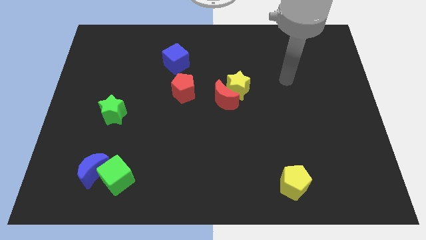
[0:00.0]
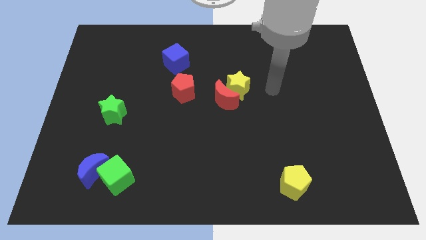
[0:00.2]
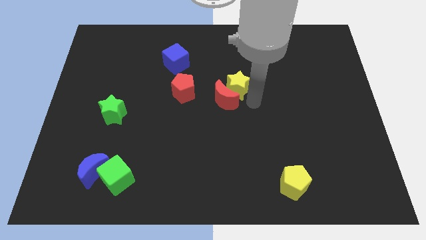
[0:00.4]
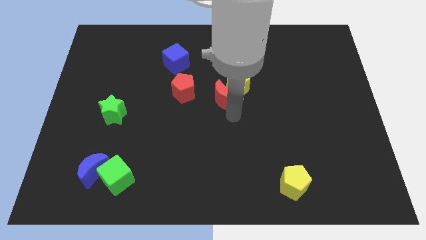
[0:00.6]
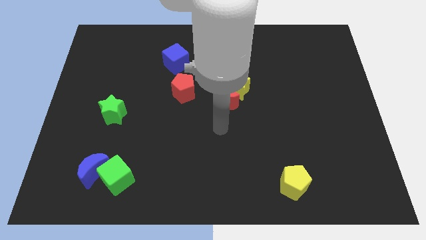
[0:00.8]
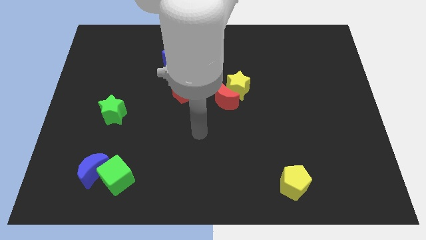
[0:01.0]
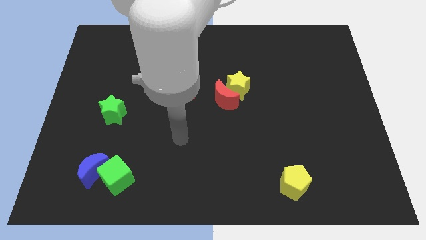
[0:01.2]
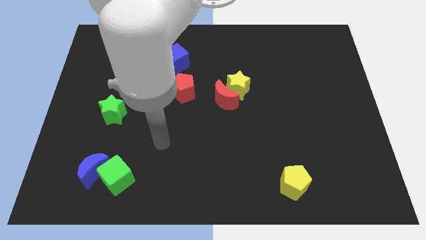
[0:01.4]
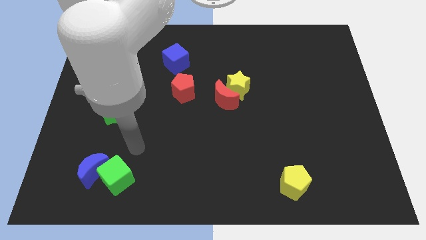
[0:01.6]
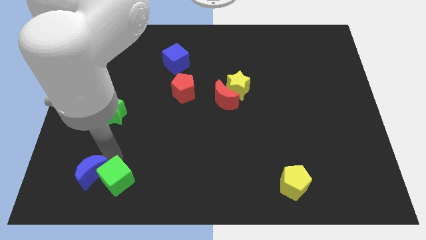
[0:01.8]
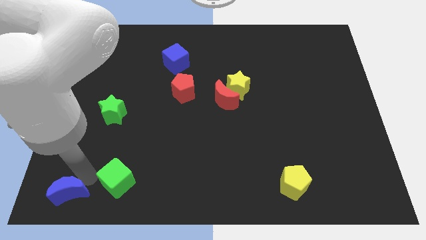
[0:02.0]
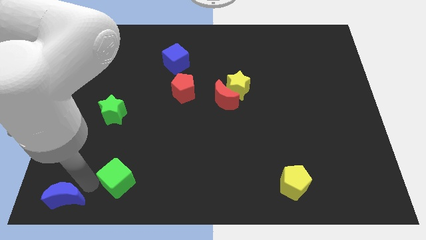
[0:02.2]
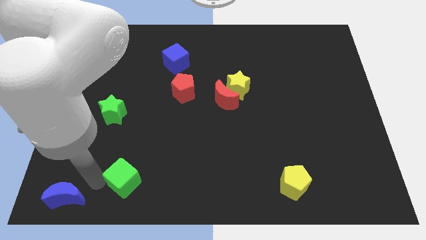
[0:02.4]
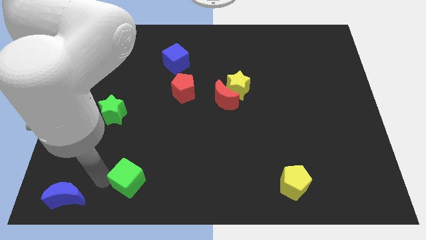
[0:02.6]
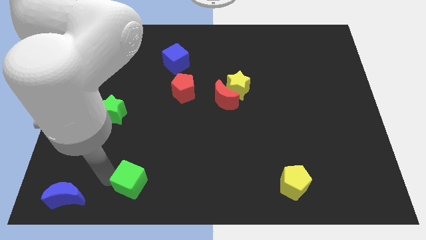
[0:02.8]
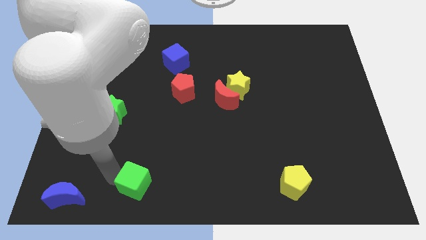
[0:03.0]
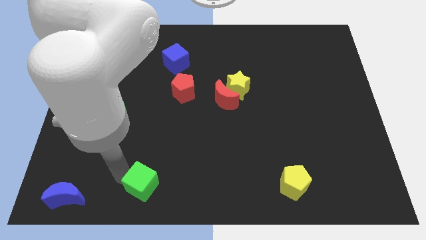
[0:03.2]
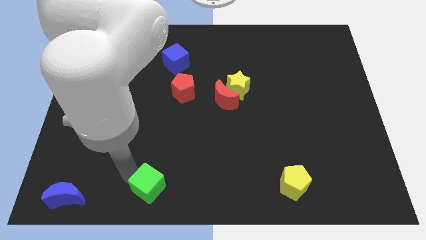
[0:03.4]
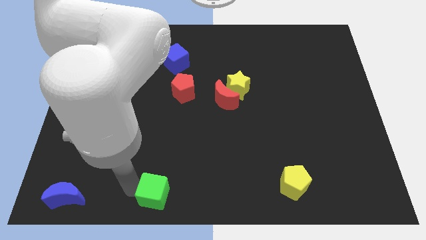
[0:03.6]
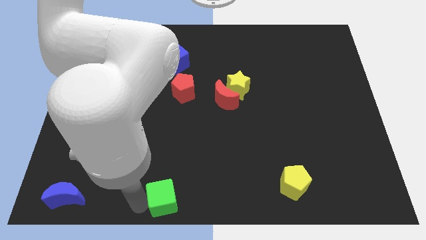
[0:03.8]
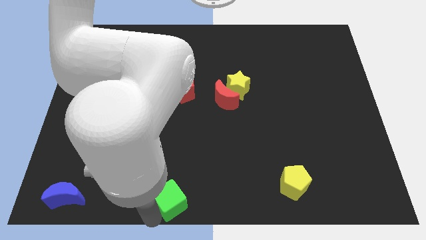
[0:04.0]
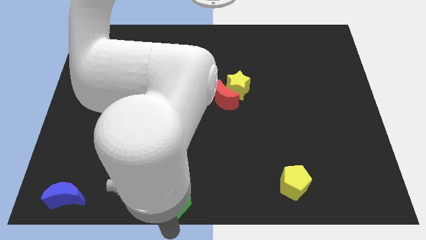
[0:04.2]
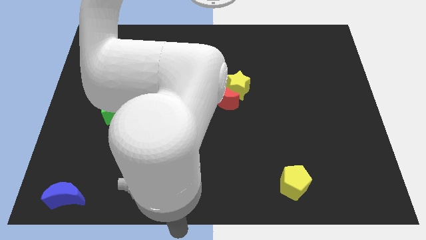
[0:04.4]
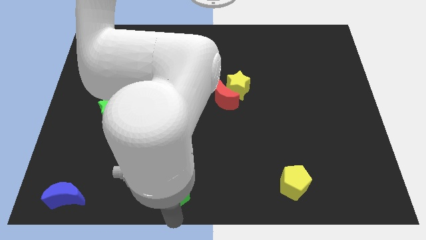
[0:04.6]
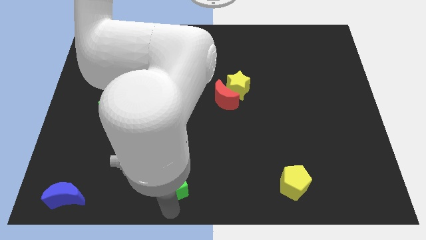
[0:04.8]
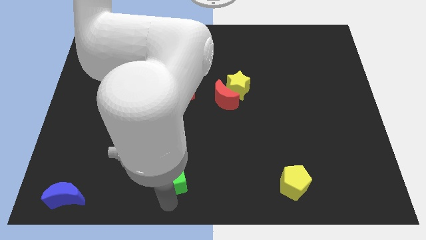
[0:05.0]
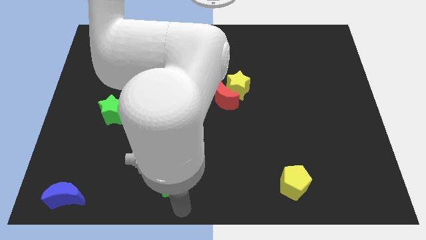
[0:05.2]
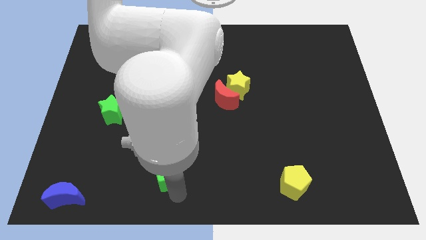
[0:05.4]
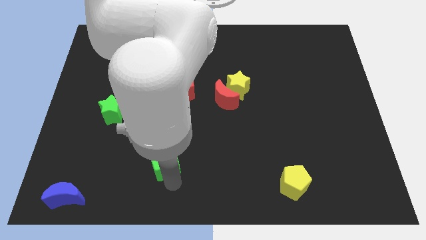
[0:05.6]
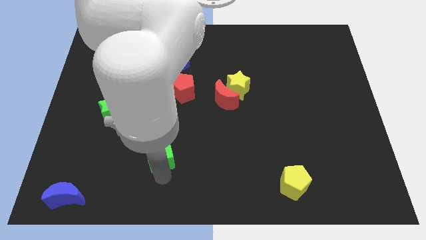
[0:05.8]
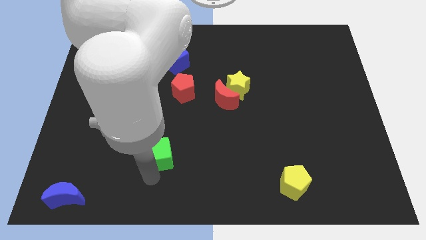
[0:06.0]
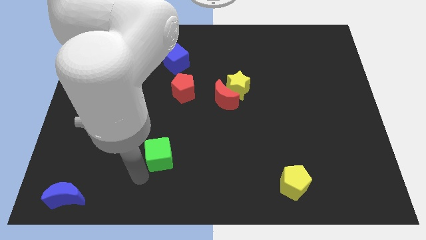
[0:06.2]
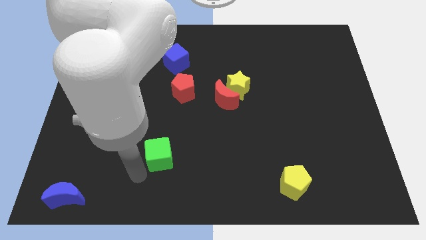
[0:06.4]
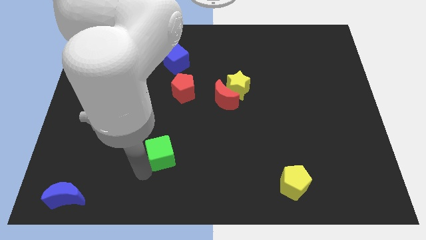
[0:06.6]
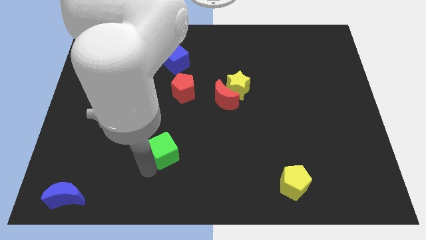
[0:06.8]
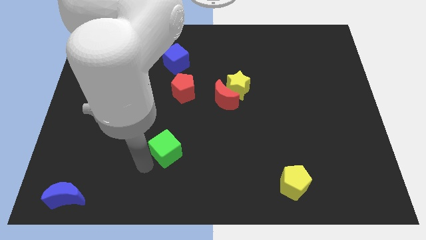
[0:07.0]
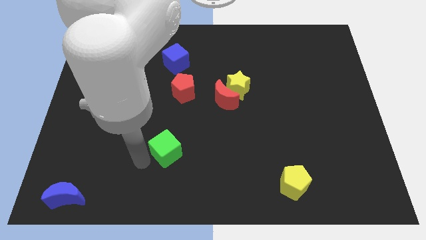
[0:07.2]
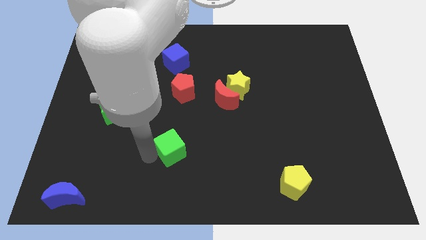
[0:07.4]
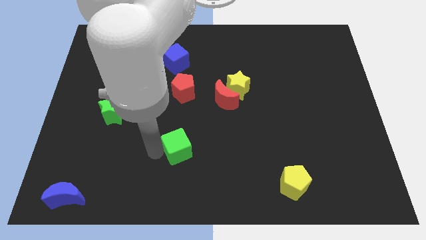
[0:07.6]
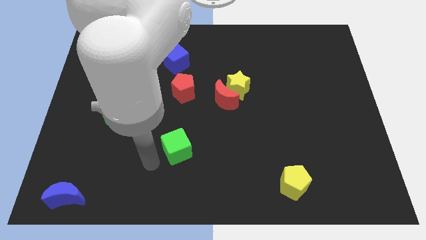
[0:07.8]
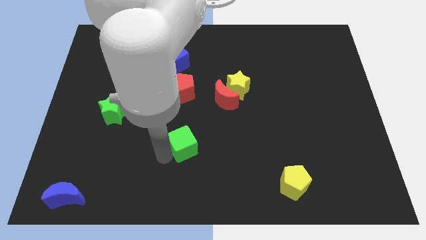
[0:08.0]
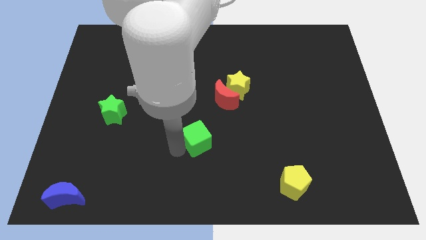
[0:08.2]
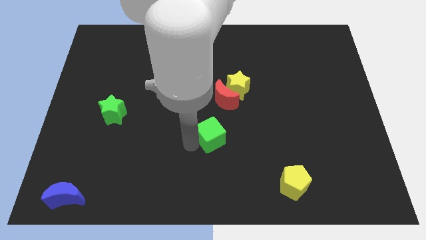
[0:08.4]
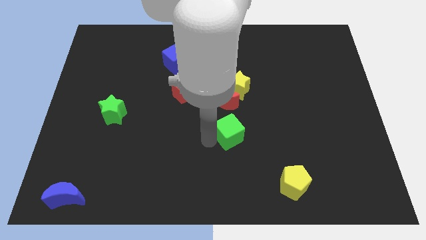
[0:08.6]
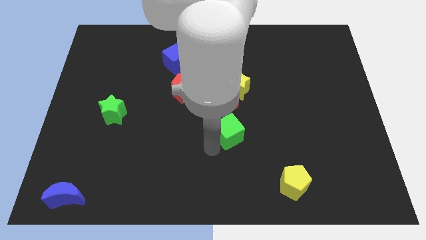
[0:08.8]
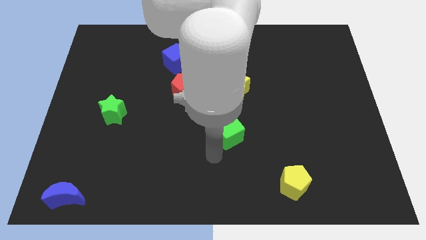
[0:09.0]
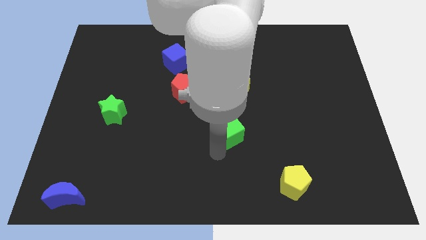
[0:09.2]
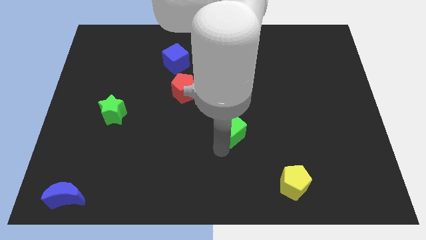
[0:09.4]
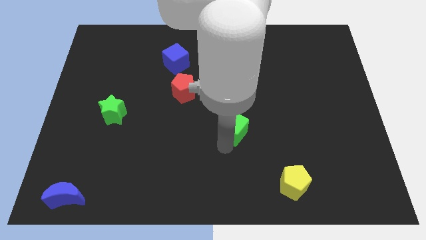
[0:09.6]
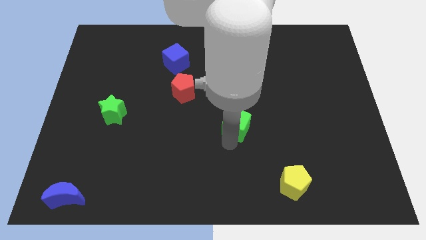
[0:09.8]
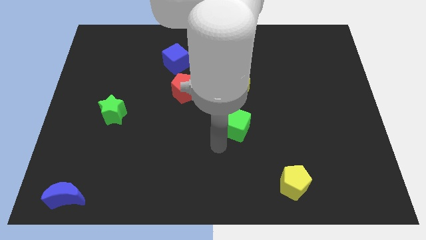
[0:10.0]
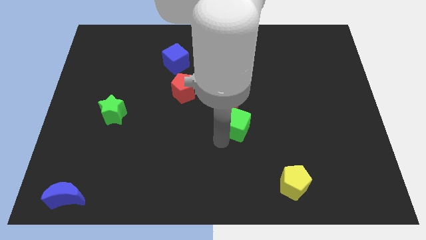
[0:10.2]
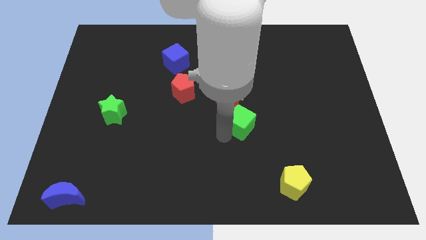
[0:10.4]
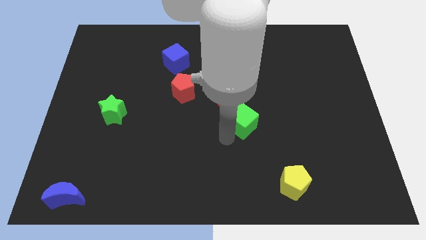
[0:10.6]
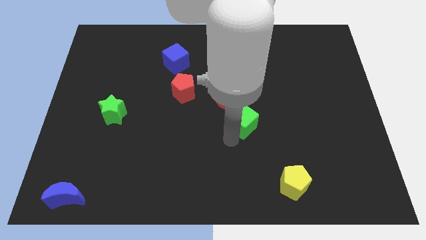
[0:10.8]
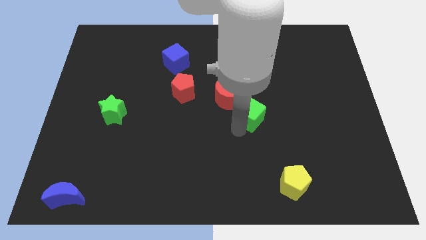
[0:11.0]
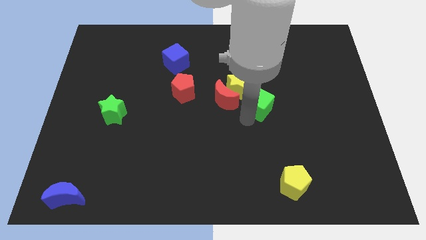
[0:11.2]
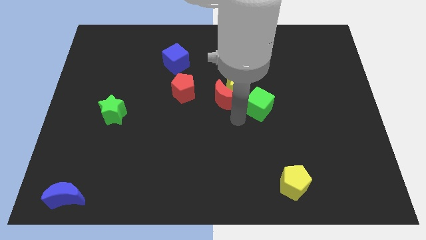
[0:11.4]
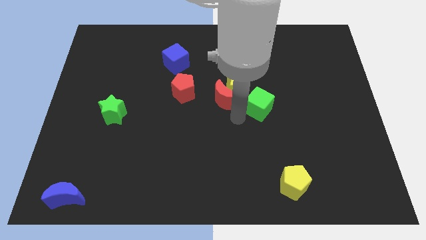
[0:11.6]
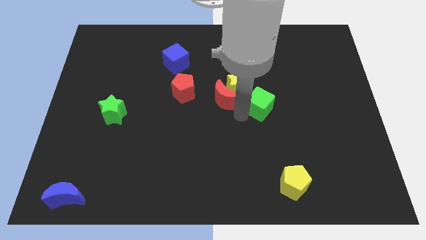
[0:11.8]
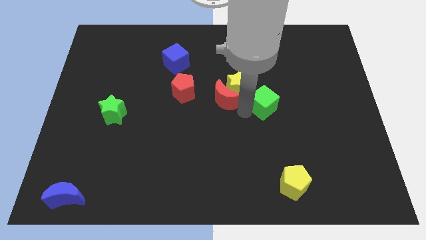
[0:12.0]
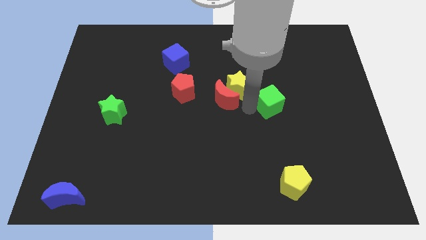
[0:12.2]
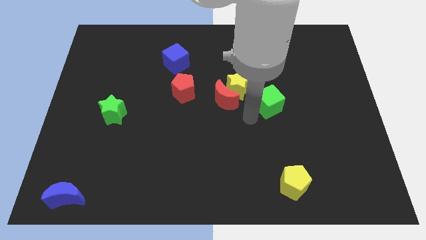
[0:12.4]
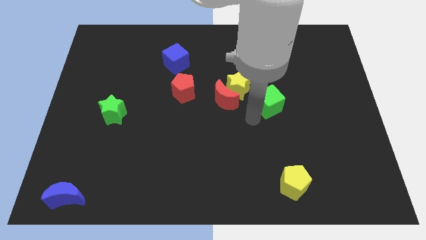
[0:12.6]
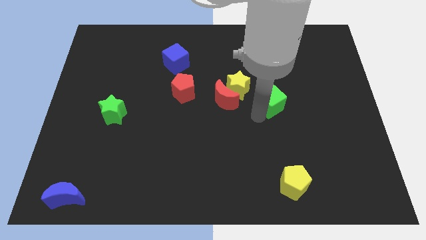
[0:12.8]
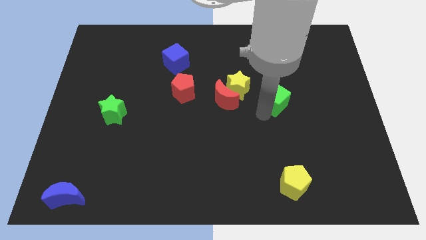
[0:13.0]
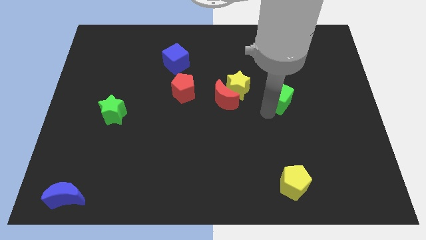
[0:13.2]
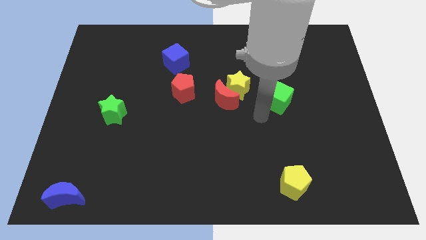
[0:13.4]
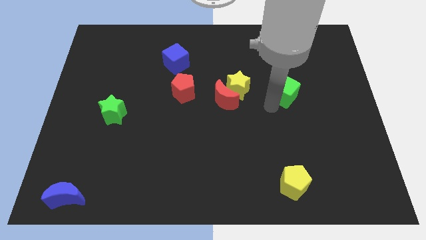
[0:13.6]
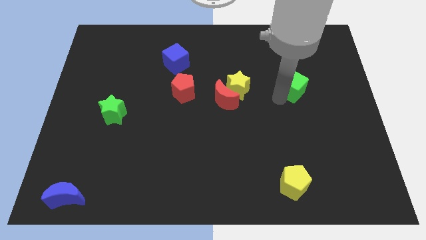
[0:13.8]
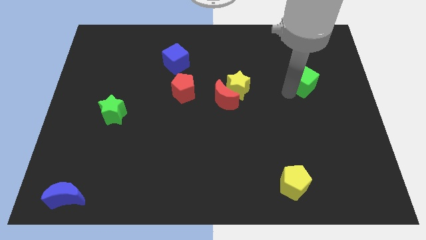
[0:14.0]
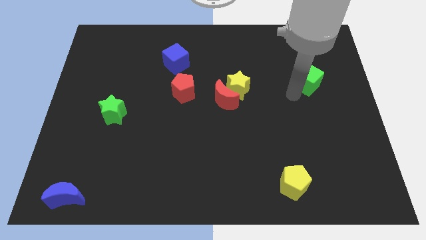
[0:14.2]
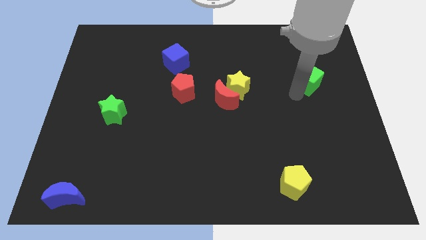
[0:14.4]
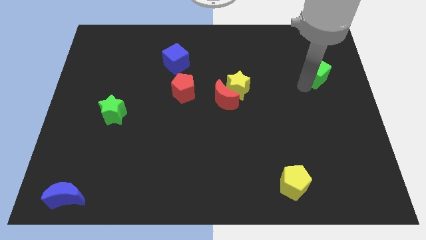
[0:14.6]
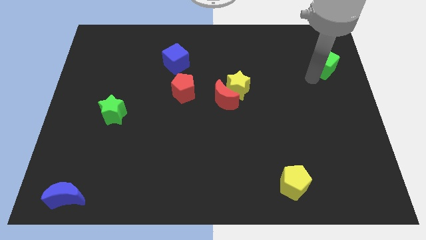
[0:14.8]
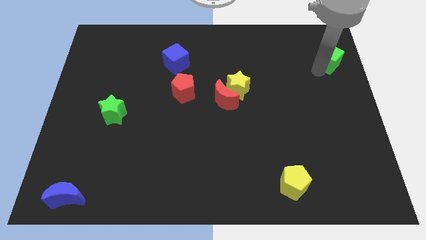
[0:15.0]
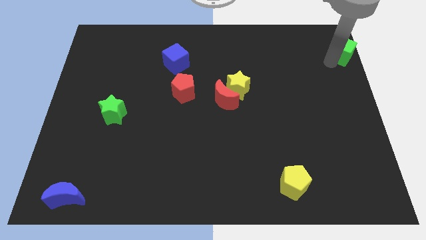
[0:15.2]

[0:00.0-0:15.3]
put the green cube to the top right of the board
